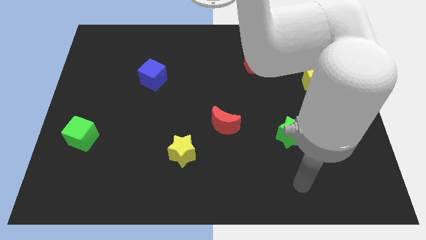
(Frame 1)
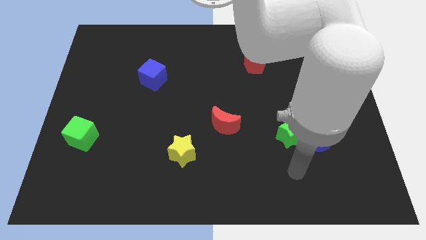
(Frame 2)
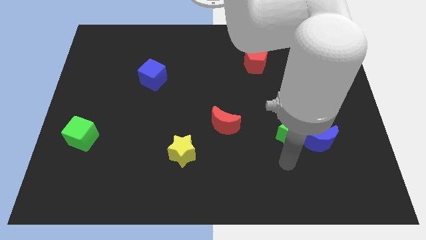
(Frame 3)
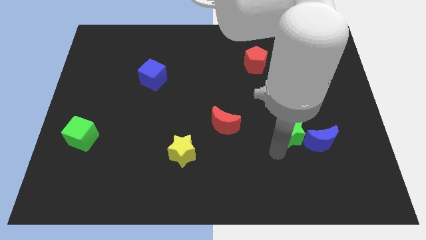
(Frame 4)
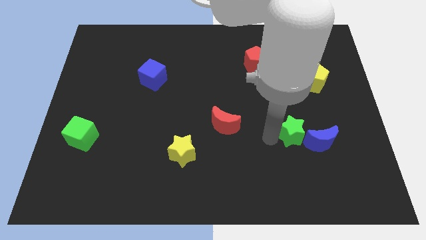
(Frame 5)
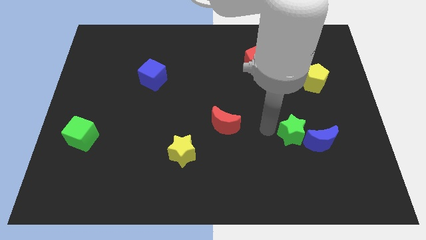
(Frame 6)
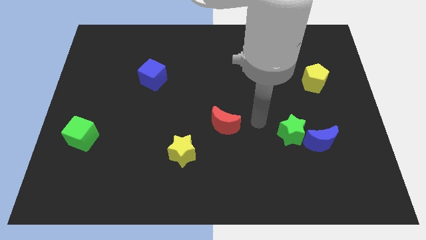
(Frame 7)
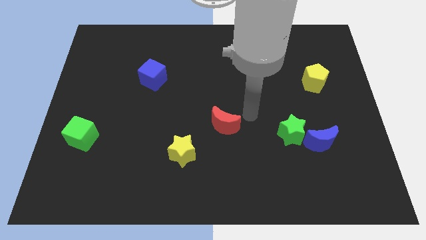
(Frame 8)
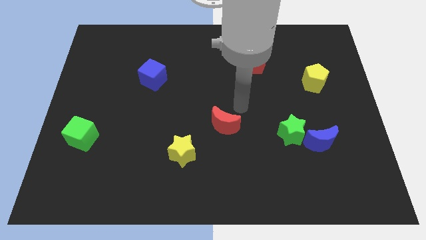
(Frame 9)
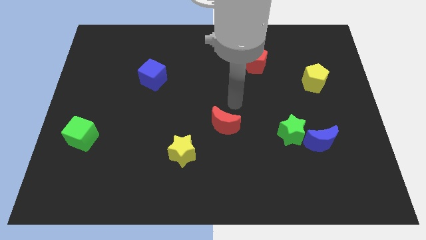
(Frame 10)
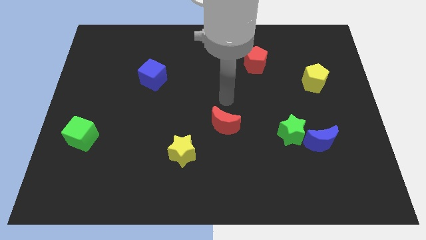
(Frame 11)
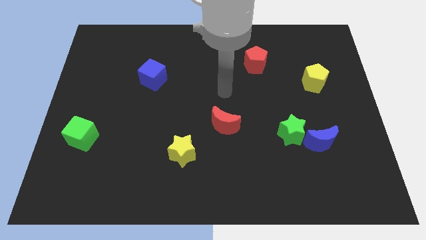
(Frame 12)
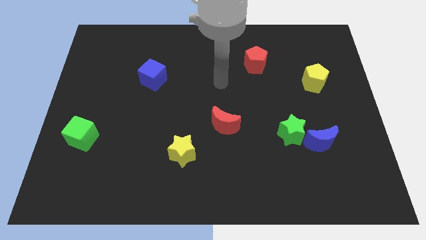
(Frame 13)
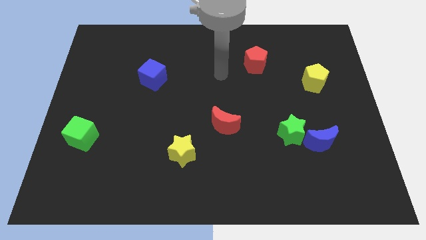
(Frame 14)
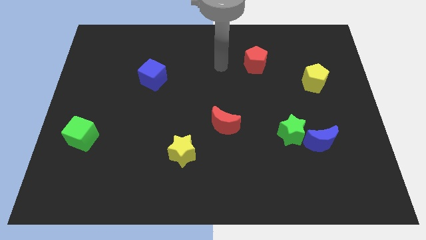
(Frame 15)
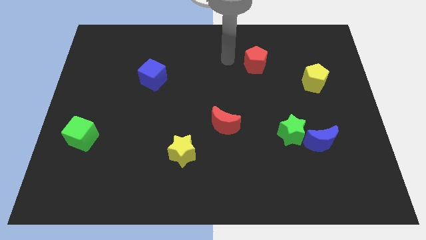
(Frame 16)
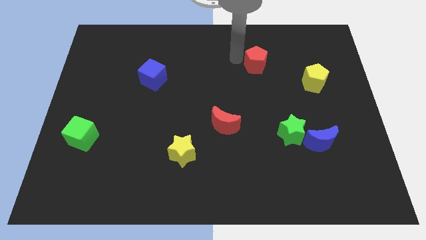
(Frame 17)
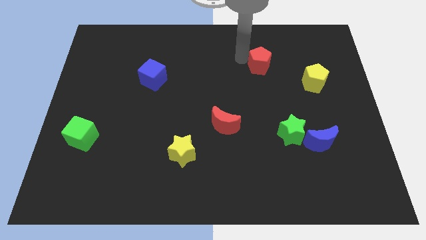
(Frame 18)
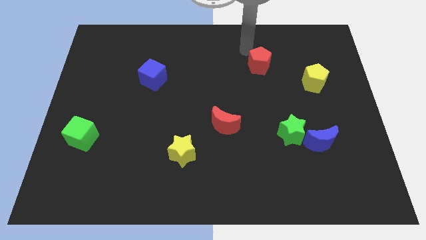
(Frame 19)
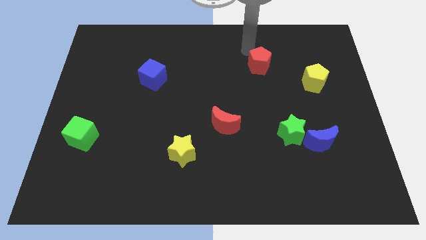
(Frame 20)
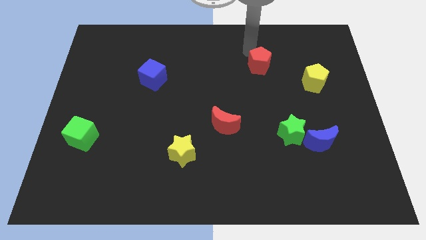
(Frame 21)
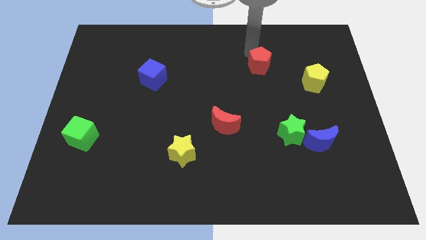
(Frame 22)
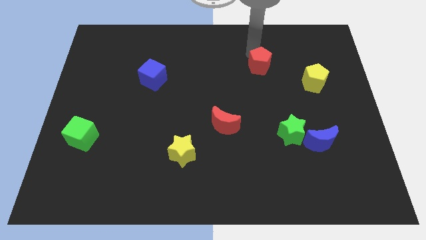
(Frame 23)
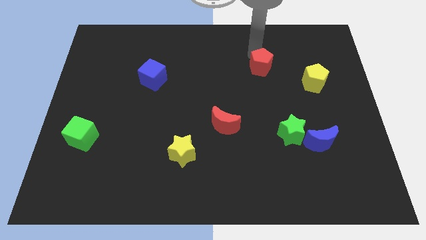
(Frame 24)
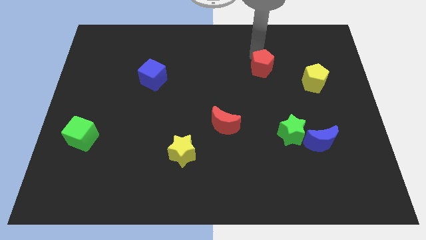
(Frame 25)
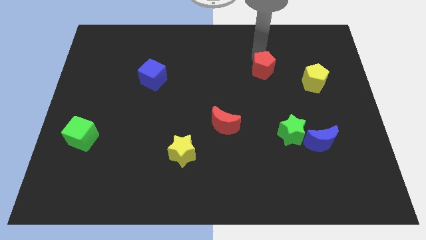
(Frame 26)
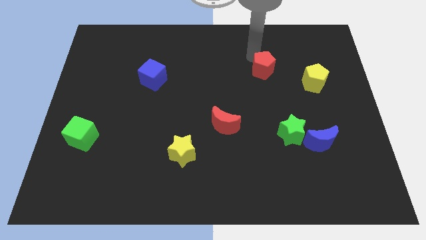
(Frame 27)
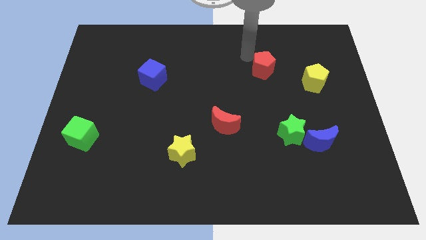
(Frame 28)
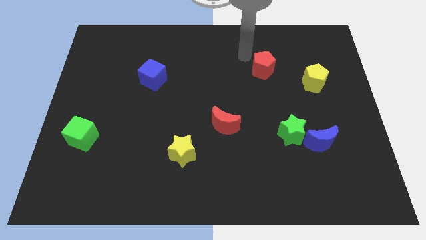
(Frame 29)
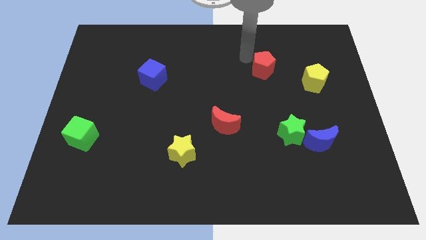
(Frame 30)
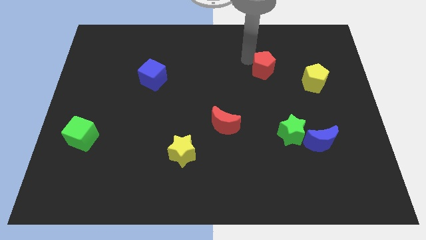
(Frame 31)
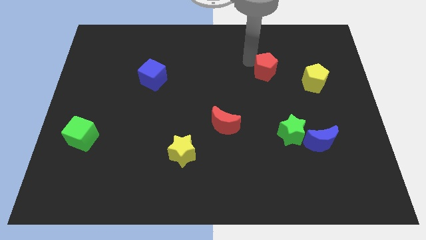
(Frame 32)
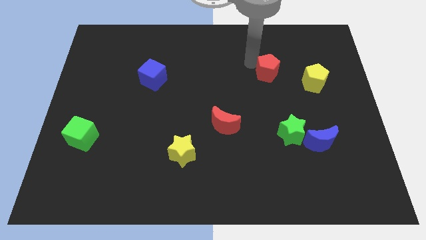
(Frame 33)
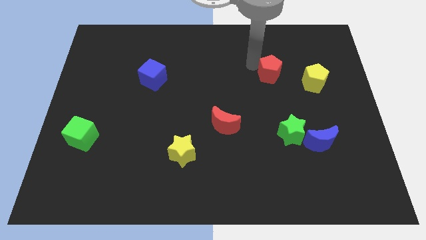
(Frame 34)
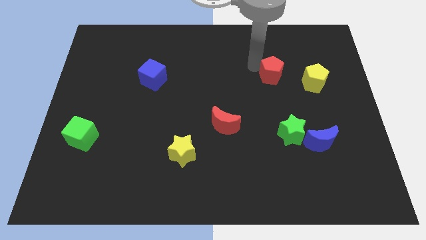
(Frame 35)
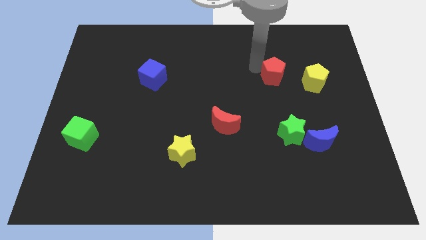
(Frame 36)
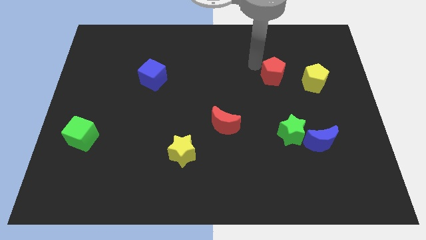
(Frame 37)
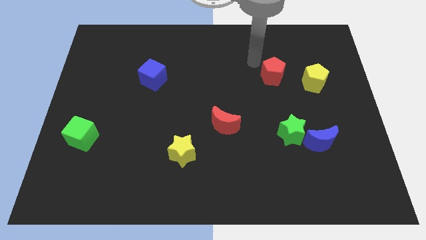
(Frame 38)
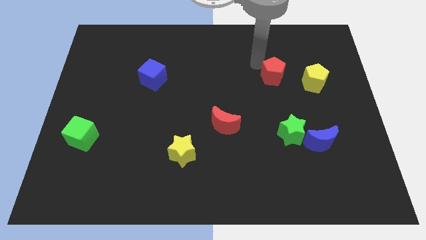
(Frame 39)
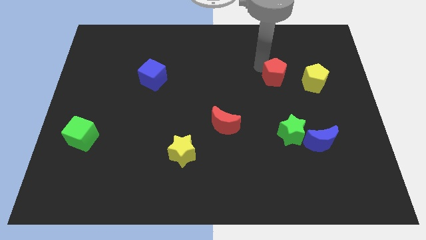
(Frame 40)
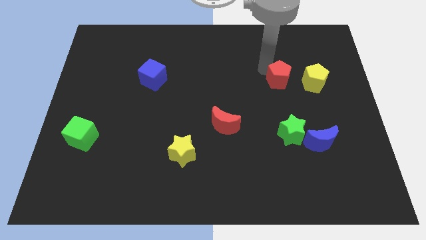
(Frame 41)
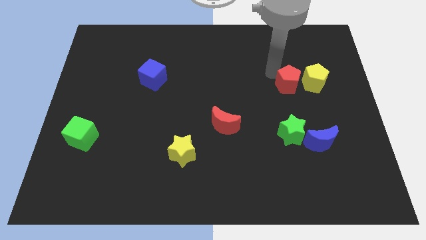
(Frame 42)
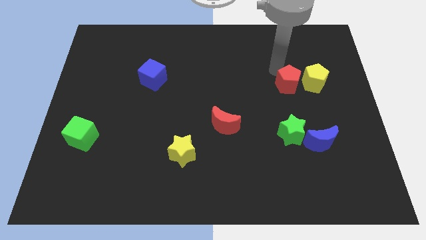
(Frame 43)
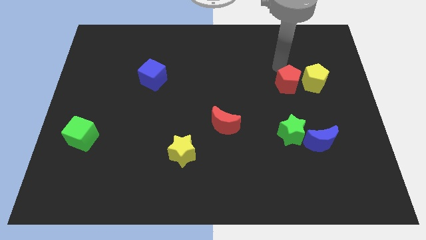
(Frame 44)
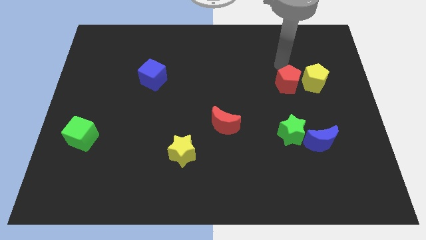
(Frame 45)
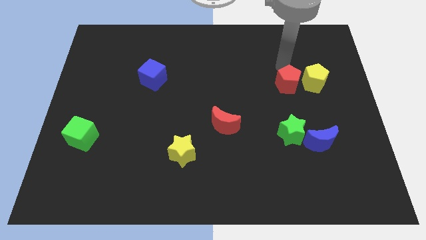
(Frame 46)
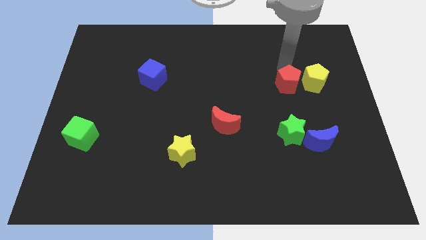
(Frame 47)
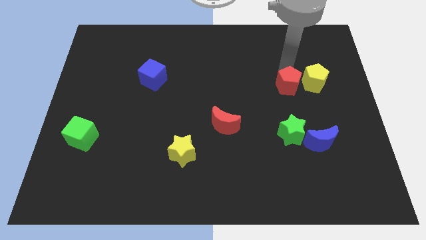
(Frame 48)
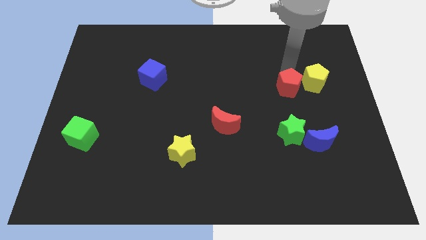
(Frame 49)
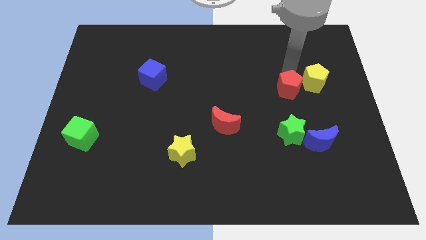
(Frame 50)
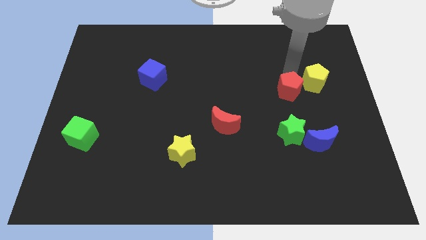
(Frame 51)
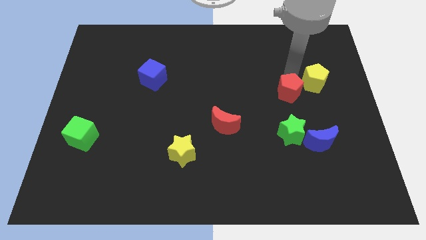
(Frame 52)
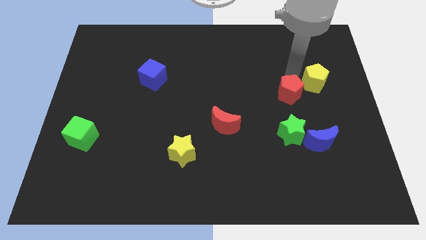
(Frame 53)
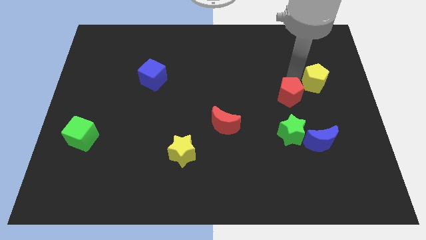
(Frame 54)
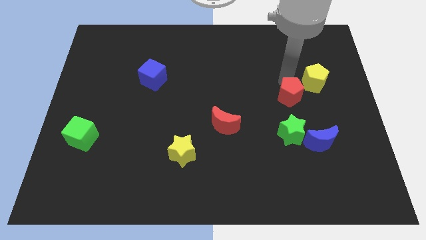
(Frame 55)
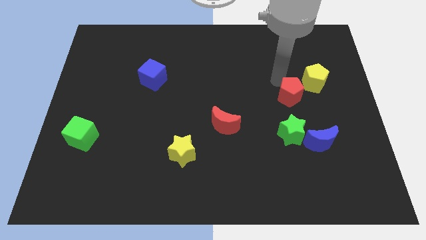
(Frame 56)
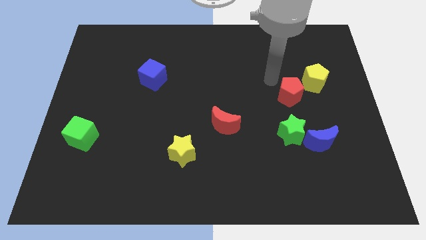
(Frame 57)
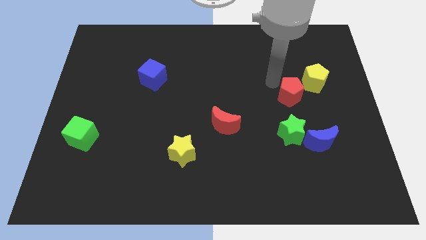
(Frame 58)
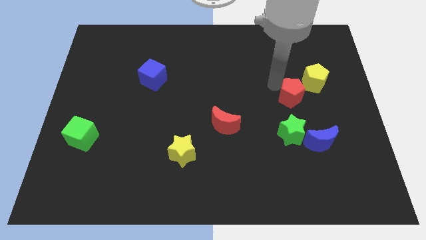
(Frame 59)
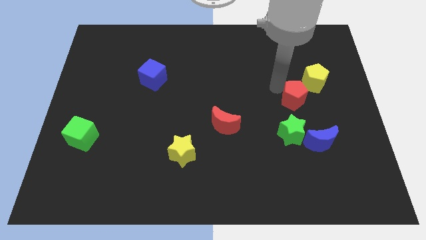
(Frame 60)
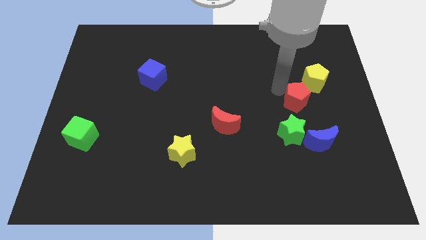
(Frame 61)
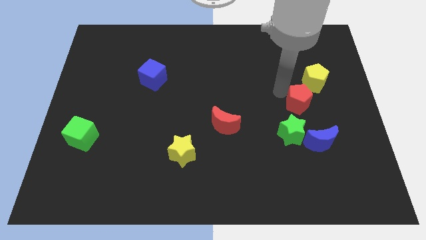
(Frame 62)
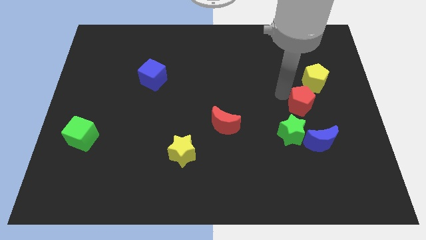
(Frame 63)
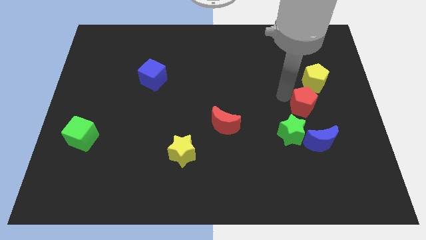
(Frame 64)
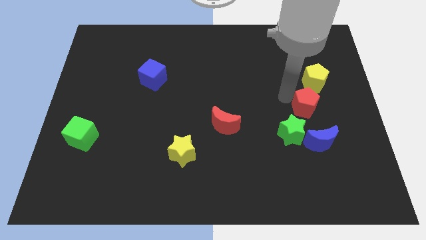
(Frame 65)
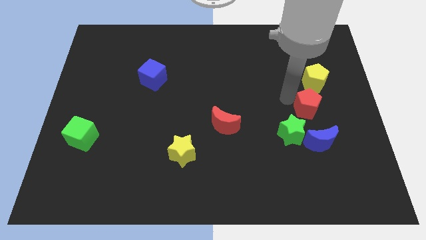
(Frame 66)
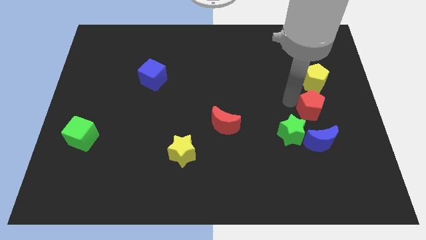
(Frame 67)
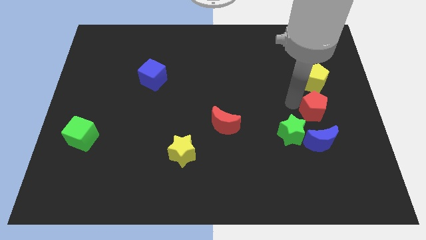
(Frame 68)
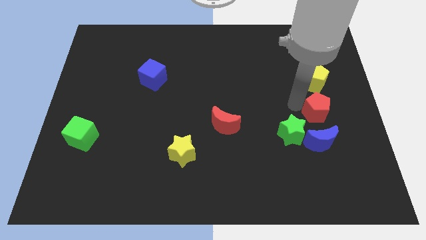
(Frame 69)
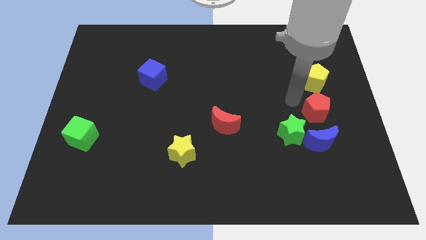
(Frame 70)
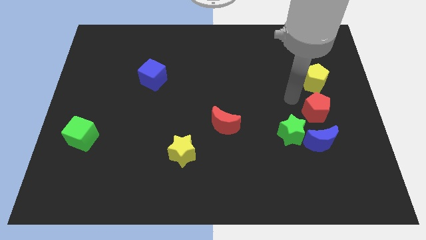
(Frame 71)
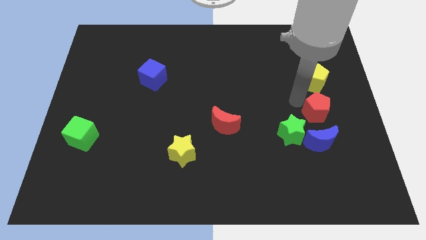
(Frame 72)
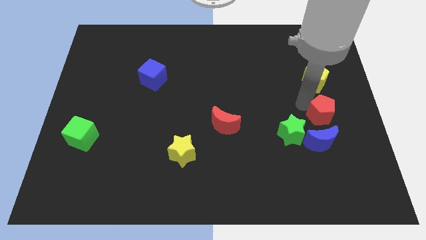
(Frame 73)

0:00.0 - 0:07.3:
move the red pentagon to the top right of the blue moon
